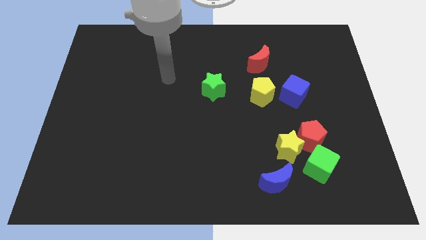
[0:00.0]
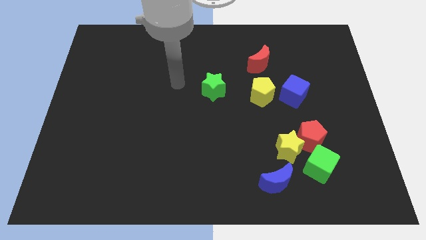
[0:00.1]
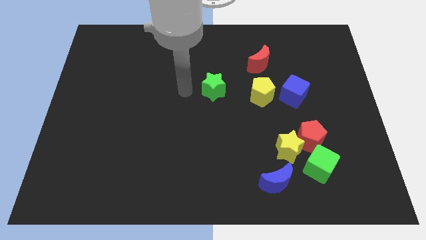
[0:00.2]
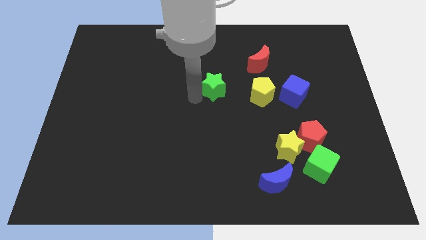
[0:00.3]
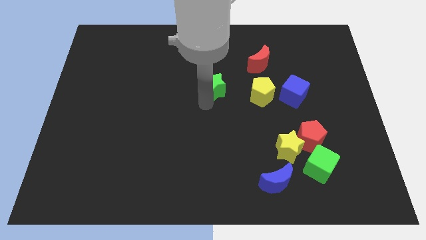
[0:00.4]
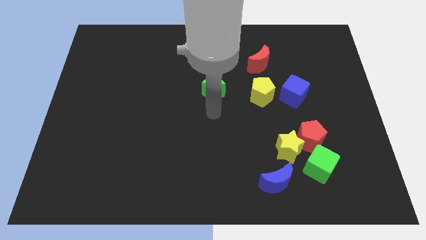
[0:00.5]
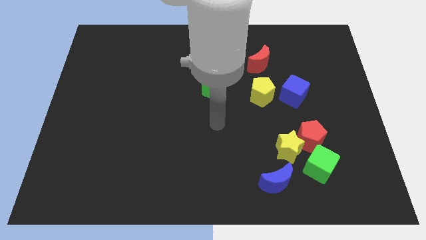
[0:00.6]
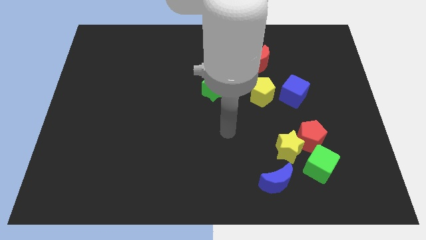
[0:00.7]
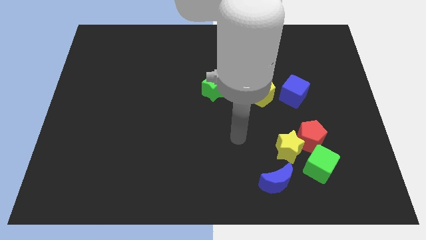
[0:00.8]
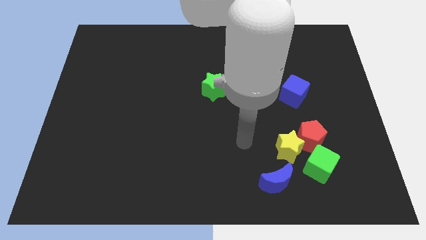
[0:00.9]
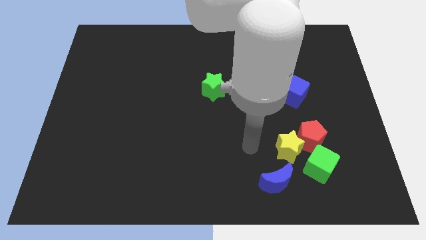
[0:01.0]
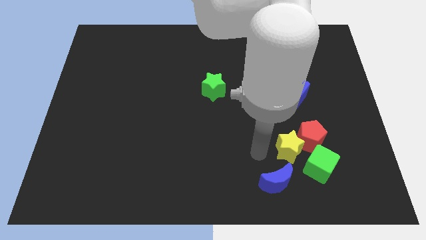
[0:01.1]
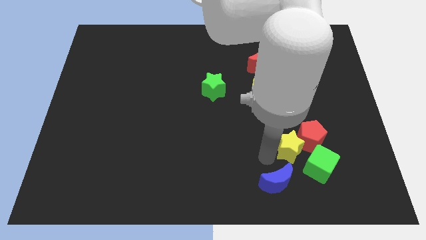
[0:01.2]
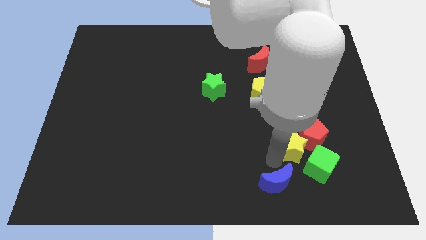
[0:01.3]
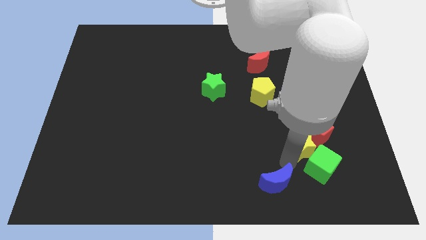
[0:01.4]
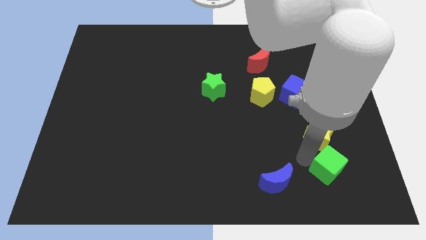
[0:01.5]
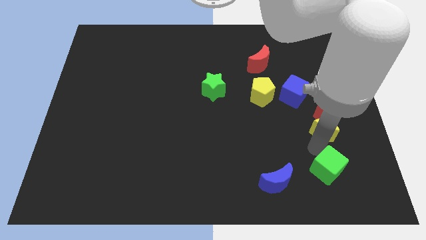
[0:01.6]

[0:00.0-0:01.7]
separate the red pentagon from the yellow star and green cube

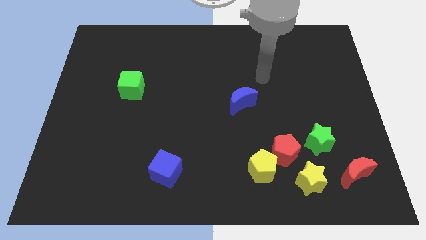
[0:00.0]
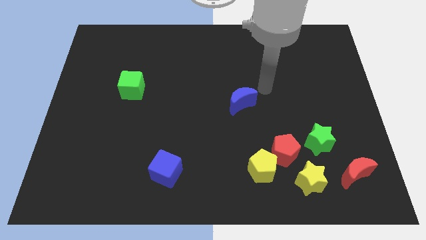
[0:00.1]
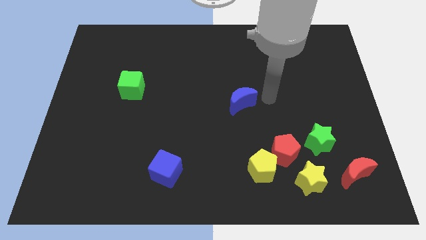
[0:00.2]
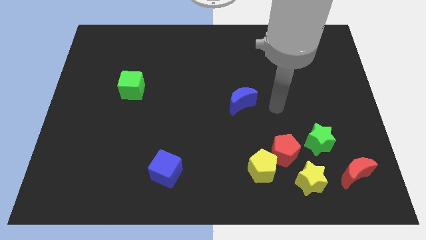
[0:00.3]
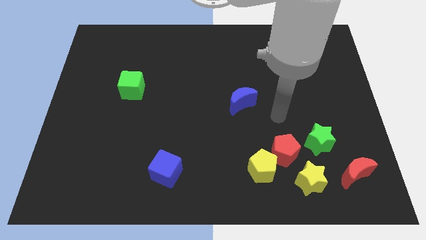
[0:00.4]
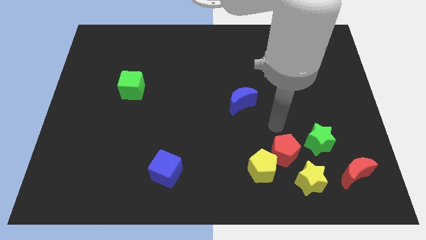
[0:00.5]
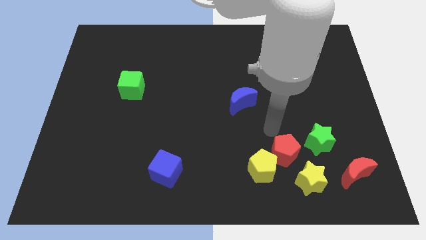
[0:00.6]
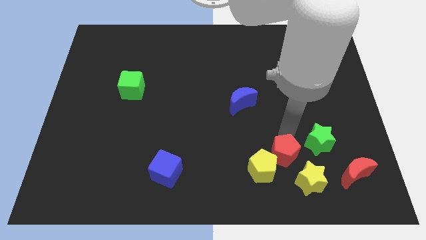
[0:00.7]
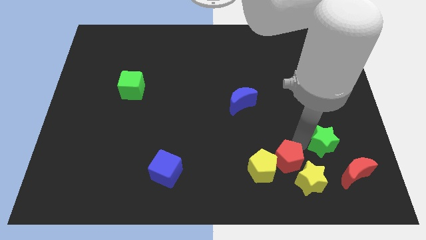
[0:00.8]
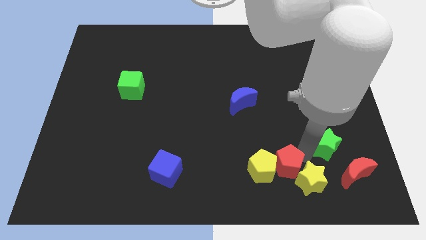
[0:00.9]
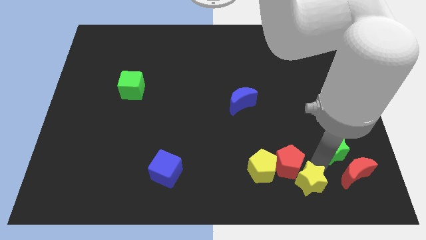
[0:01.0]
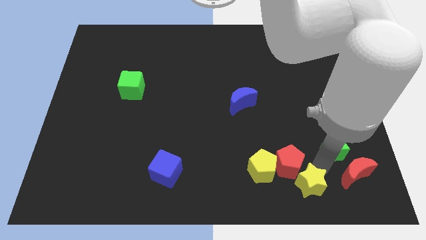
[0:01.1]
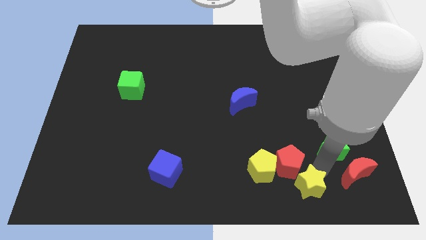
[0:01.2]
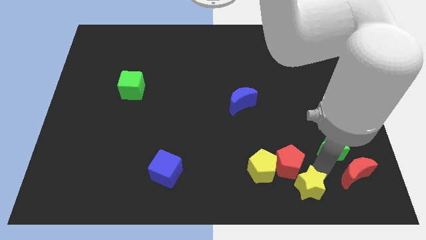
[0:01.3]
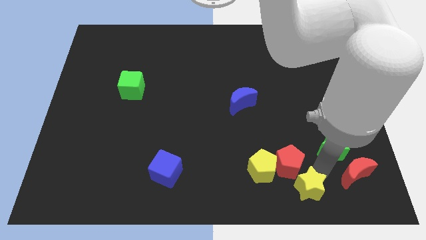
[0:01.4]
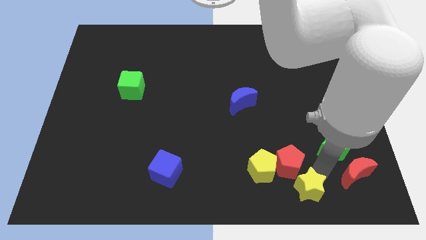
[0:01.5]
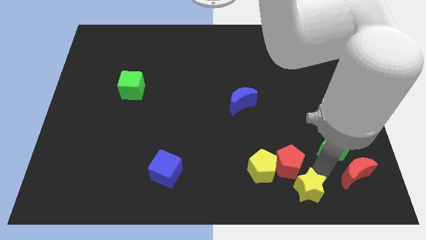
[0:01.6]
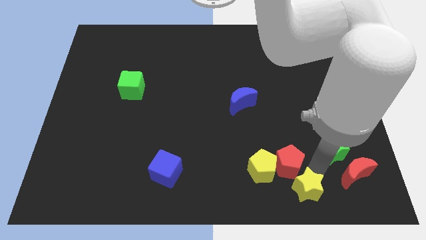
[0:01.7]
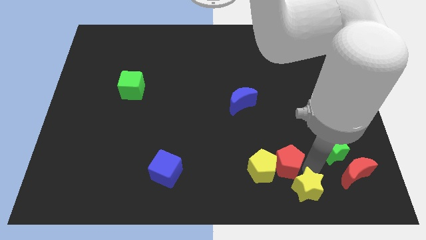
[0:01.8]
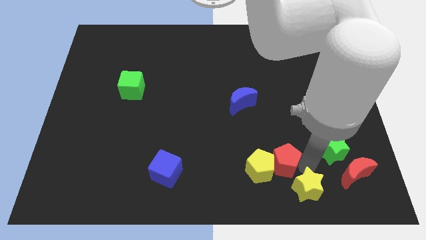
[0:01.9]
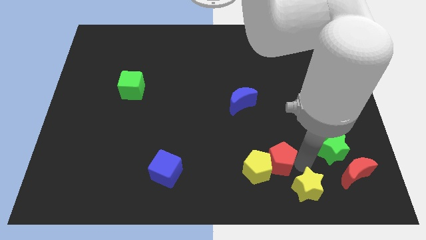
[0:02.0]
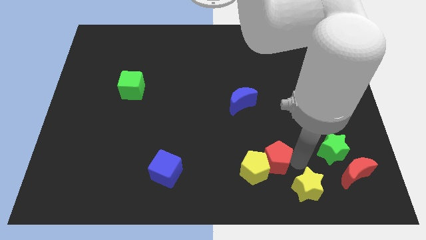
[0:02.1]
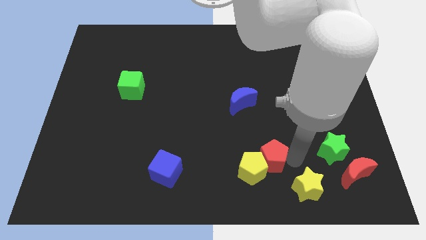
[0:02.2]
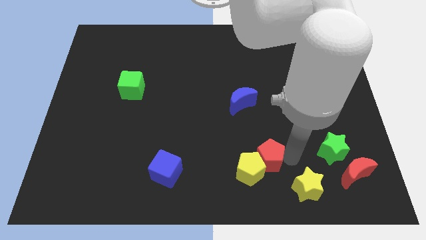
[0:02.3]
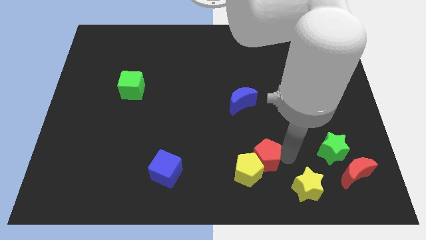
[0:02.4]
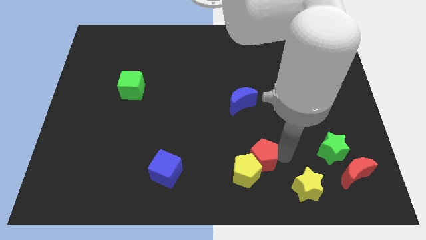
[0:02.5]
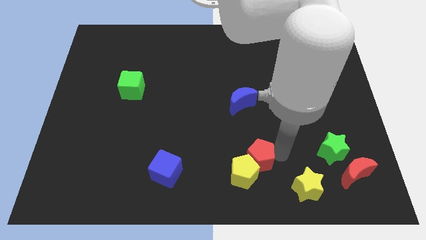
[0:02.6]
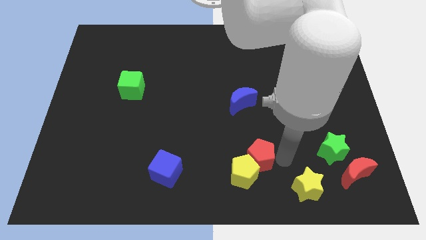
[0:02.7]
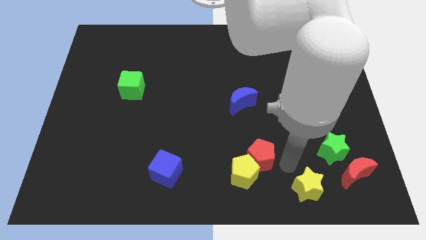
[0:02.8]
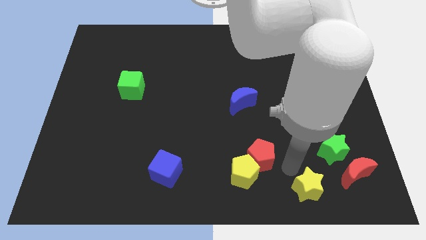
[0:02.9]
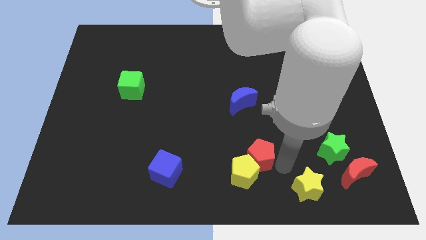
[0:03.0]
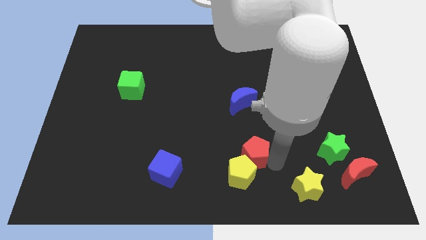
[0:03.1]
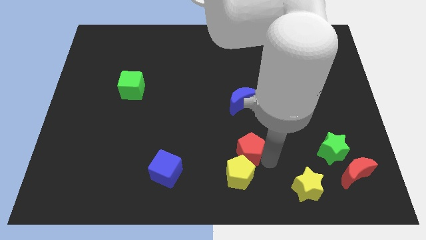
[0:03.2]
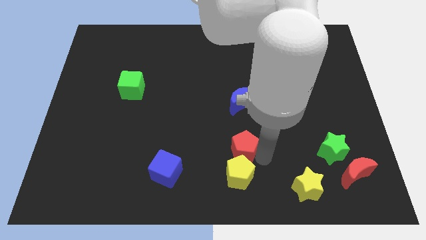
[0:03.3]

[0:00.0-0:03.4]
move the red pentagon away from the group

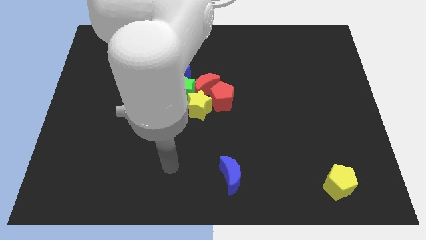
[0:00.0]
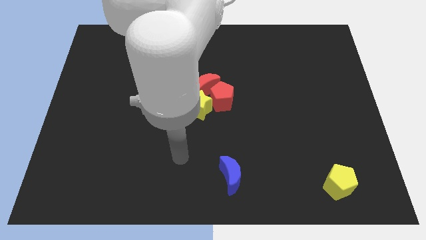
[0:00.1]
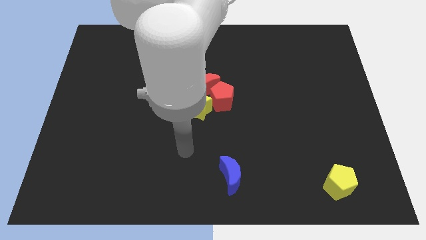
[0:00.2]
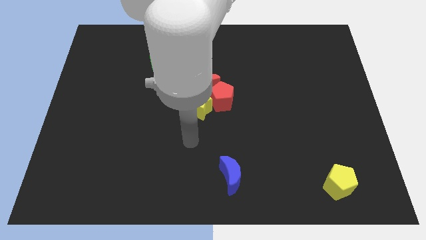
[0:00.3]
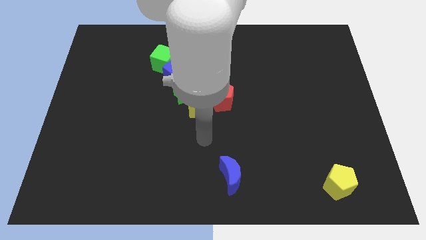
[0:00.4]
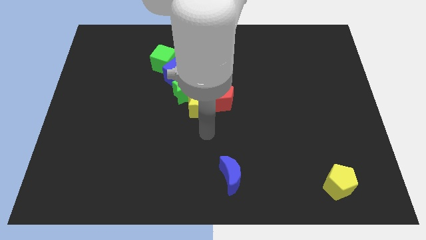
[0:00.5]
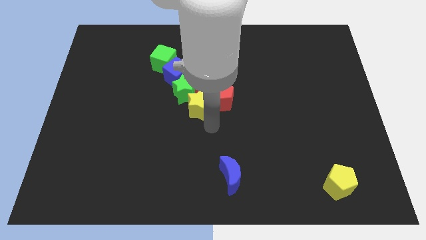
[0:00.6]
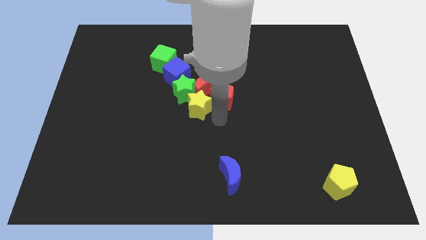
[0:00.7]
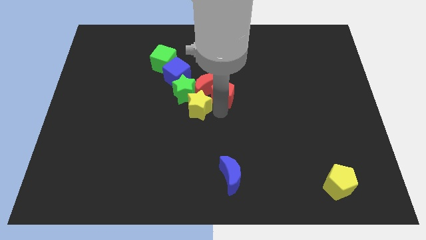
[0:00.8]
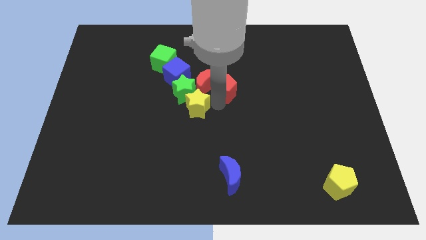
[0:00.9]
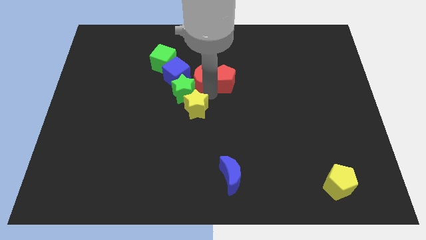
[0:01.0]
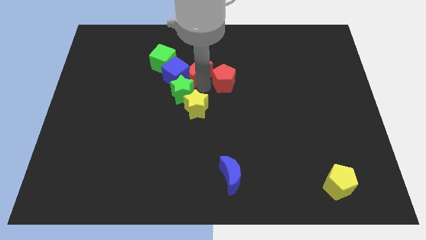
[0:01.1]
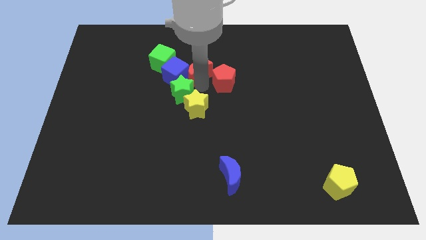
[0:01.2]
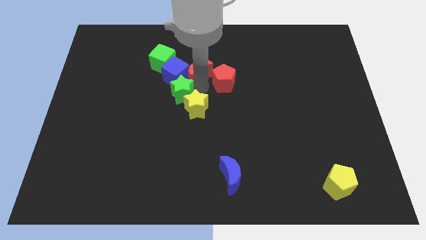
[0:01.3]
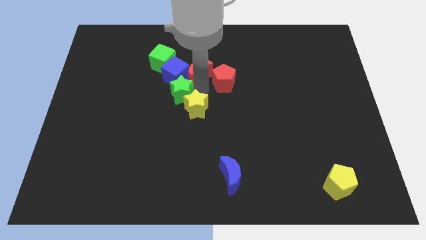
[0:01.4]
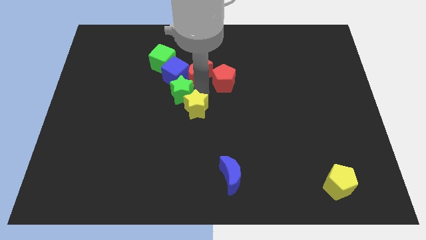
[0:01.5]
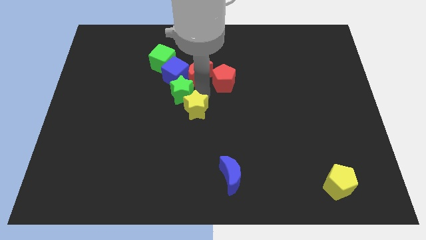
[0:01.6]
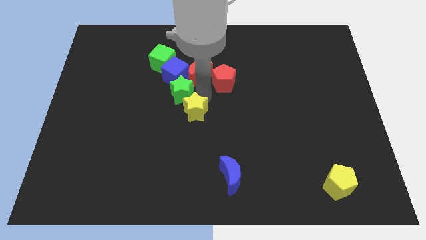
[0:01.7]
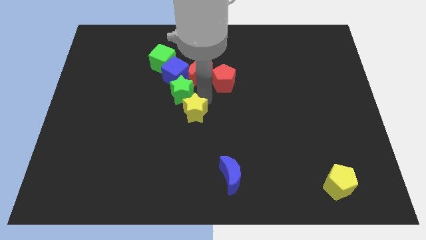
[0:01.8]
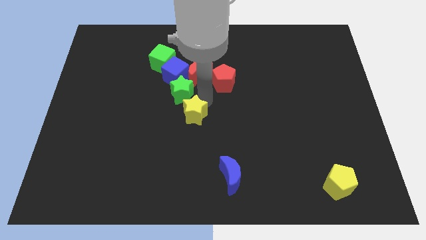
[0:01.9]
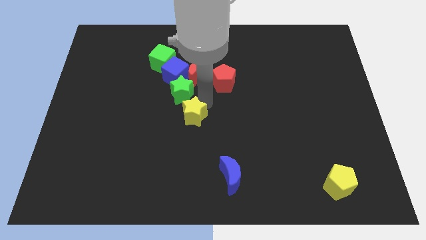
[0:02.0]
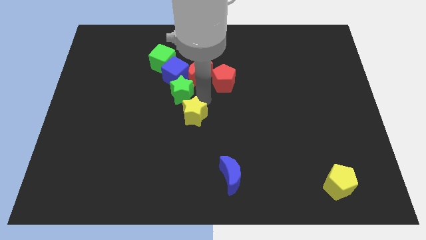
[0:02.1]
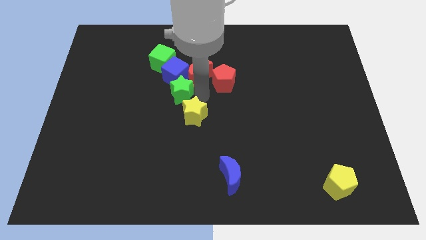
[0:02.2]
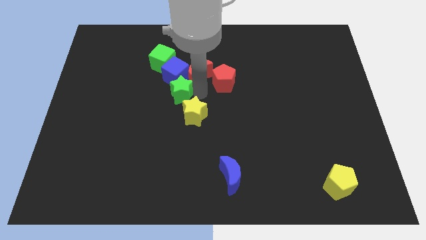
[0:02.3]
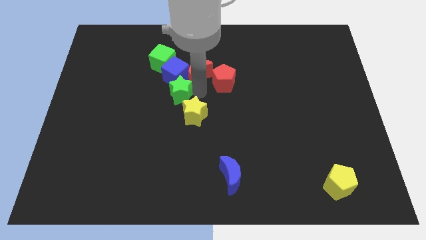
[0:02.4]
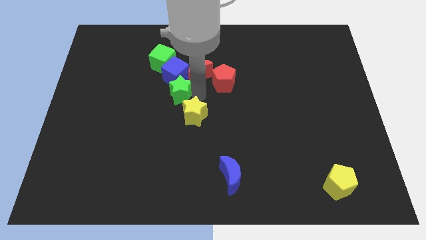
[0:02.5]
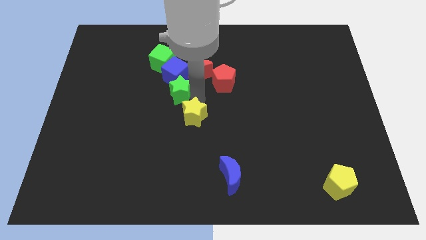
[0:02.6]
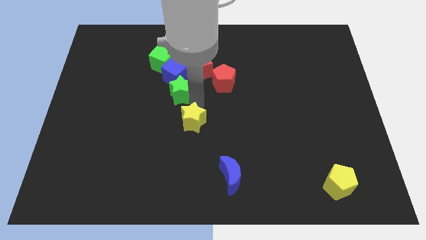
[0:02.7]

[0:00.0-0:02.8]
pull the yellow star apart from the group of blocks

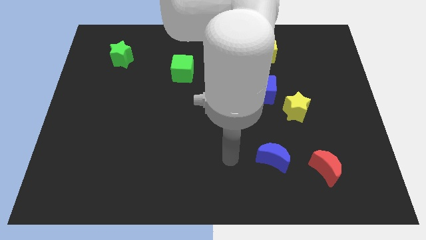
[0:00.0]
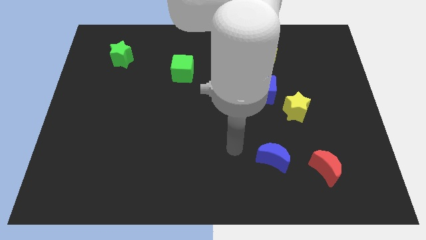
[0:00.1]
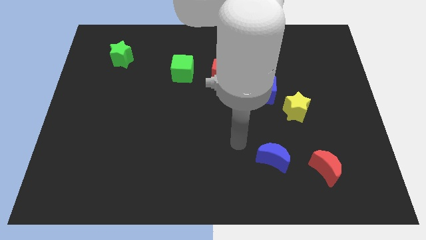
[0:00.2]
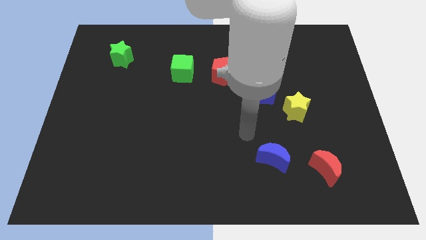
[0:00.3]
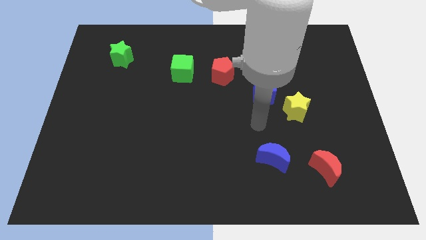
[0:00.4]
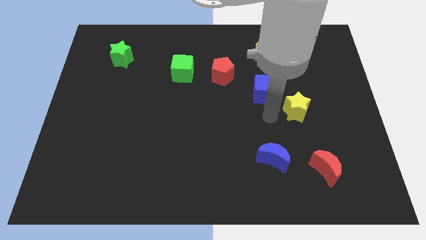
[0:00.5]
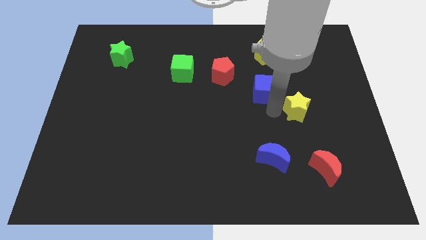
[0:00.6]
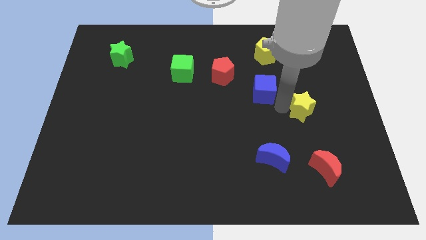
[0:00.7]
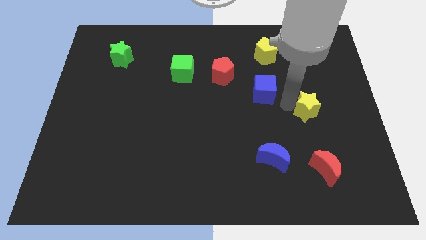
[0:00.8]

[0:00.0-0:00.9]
separate the blue cube from the yellow star

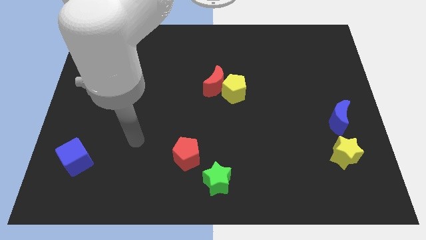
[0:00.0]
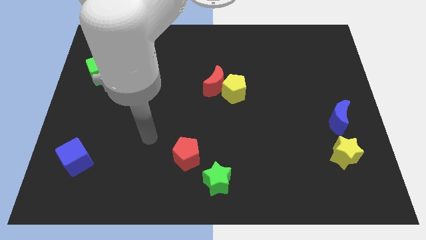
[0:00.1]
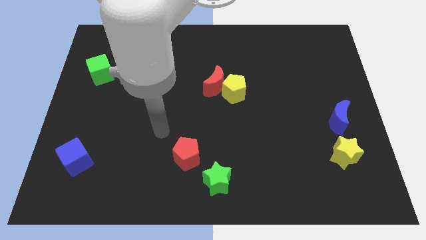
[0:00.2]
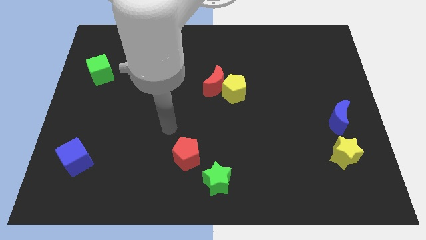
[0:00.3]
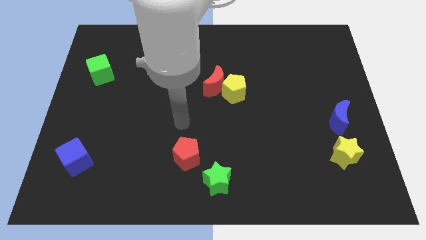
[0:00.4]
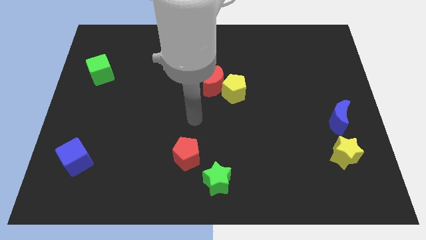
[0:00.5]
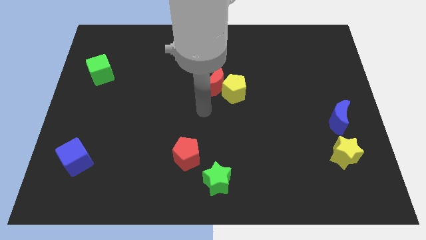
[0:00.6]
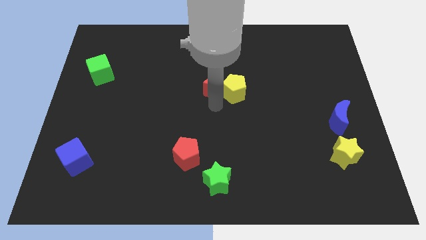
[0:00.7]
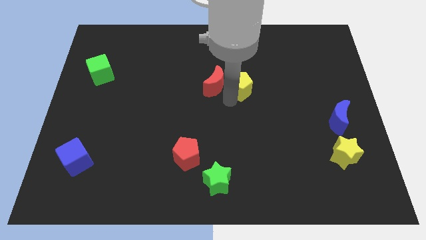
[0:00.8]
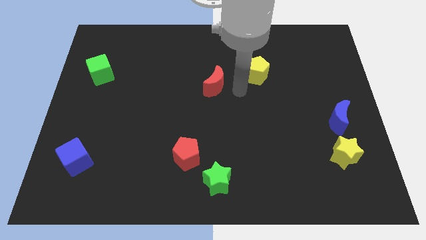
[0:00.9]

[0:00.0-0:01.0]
pull the red moon apart from the yellow pentagon
